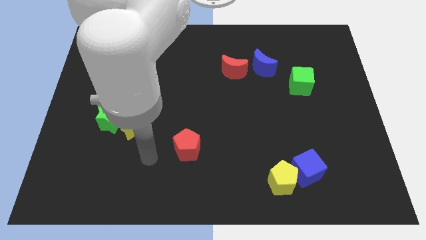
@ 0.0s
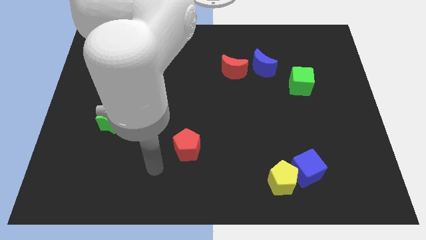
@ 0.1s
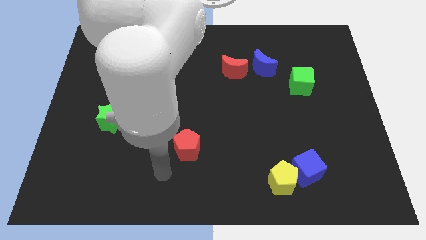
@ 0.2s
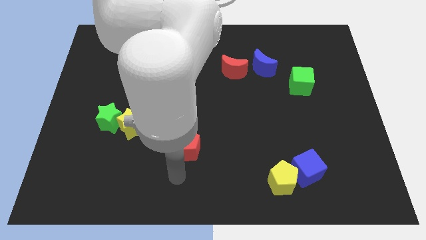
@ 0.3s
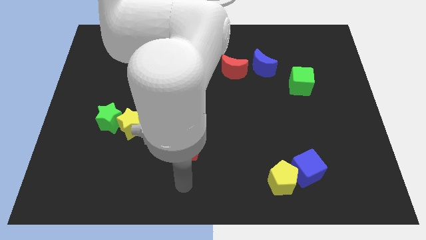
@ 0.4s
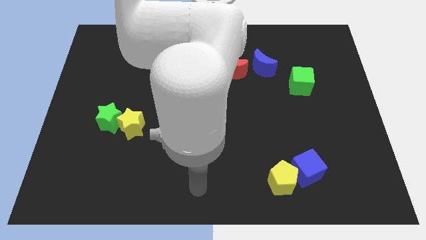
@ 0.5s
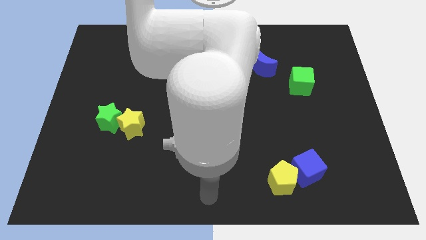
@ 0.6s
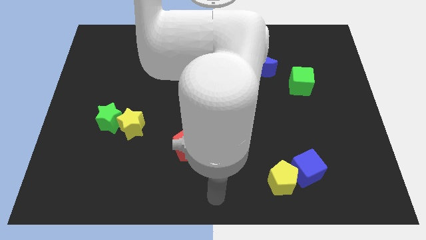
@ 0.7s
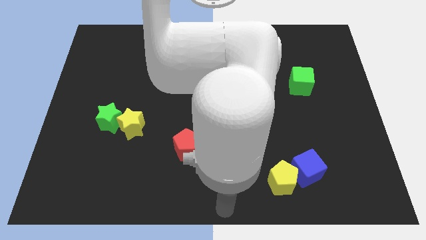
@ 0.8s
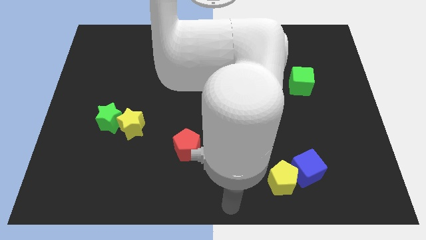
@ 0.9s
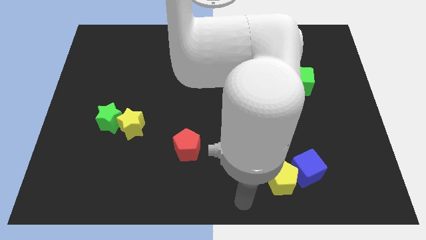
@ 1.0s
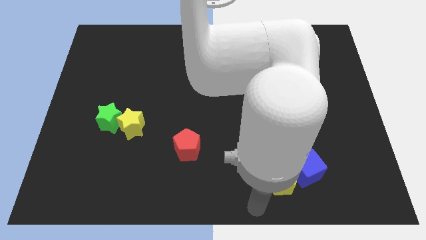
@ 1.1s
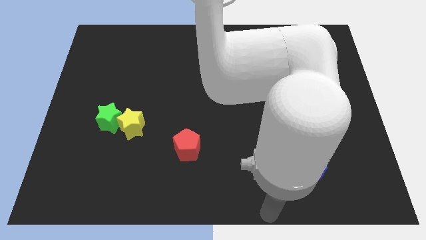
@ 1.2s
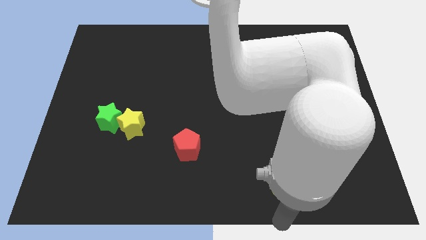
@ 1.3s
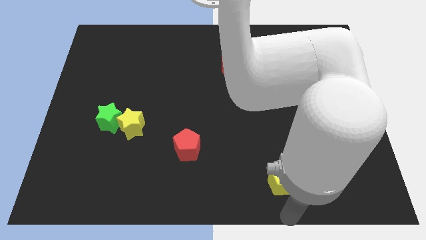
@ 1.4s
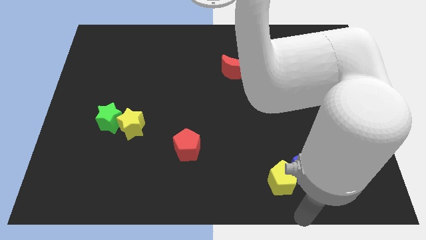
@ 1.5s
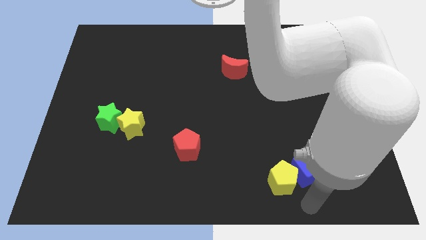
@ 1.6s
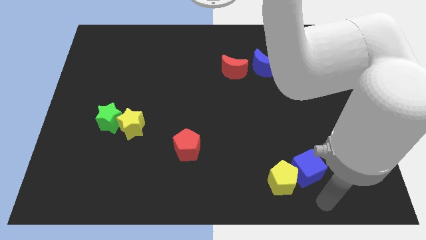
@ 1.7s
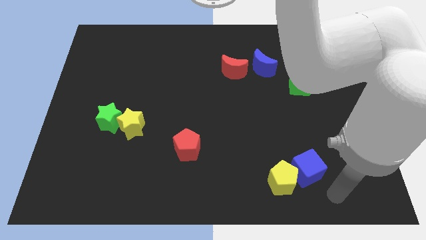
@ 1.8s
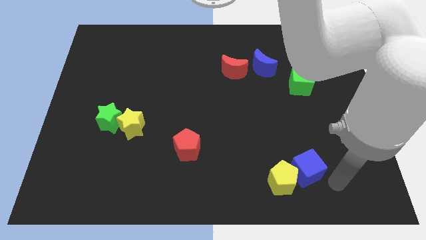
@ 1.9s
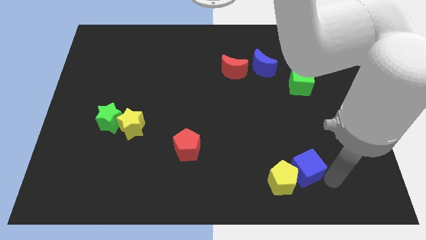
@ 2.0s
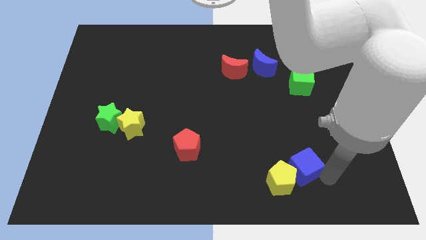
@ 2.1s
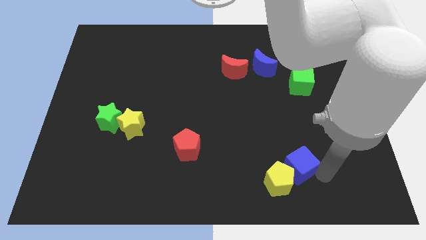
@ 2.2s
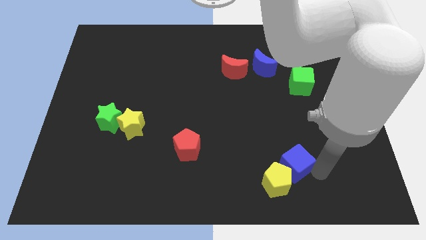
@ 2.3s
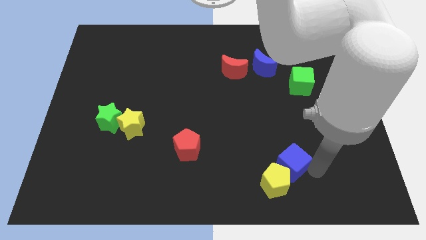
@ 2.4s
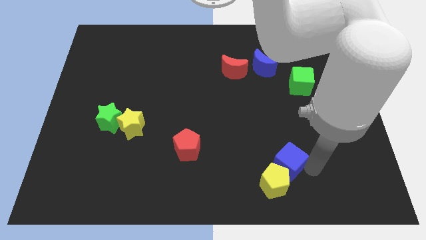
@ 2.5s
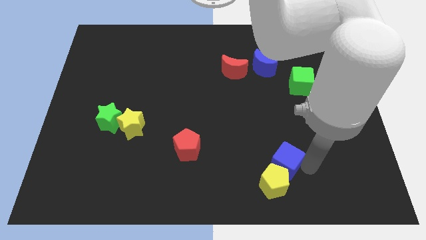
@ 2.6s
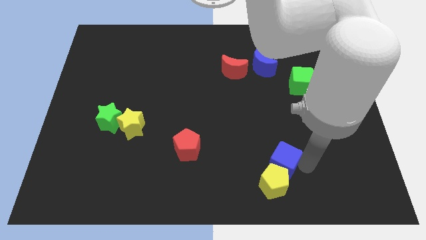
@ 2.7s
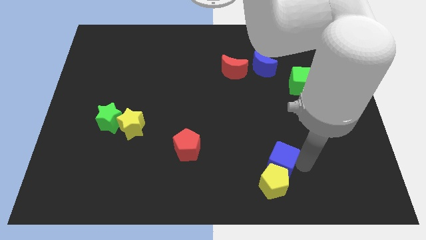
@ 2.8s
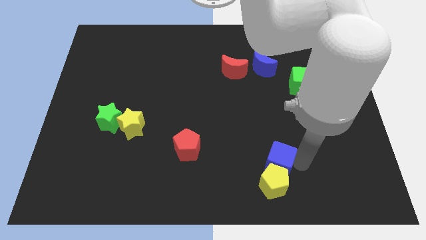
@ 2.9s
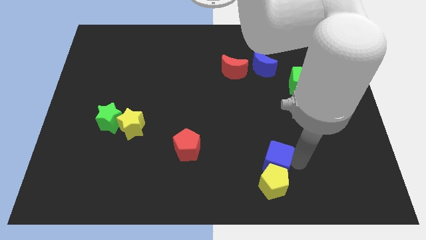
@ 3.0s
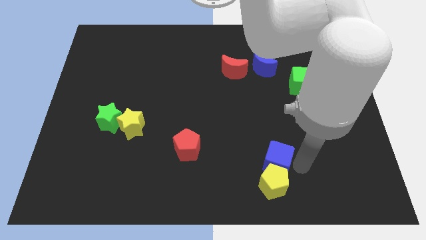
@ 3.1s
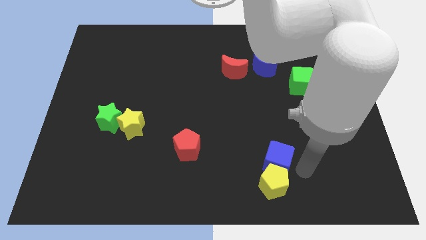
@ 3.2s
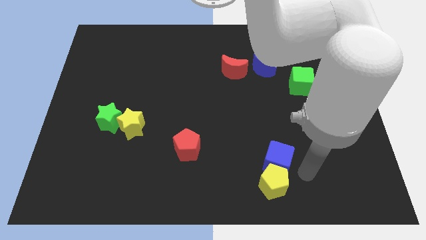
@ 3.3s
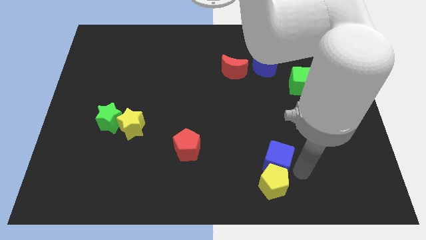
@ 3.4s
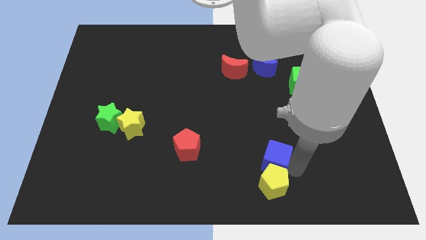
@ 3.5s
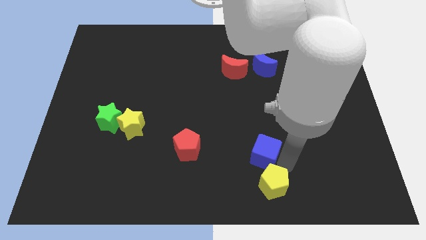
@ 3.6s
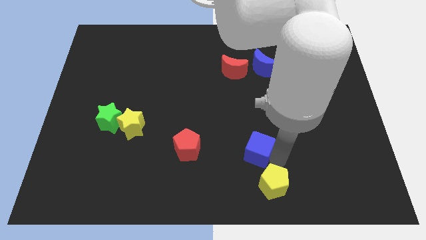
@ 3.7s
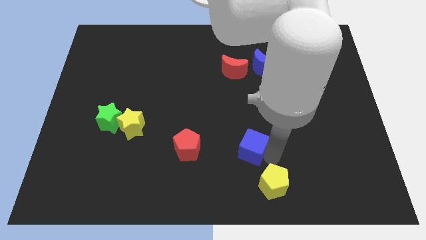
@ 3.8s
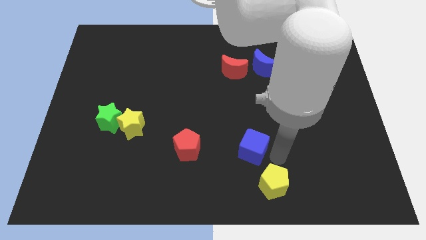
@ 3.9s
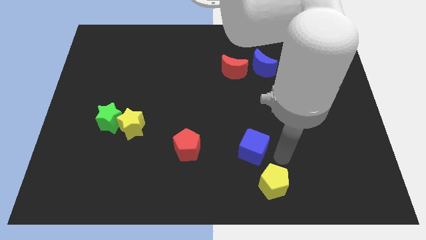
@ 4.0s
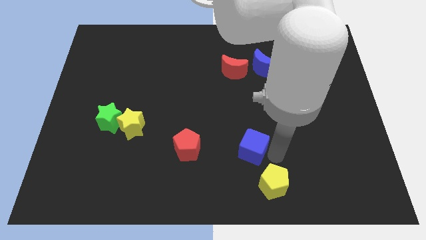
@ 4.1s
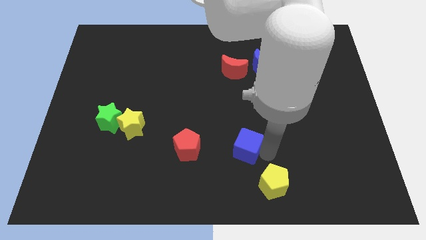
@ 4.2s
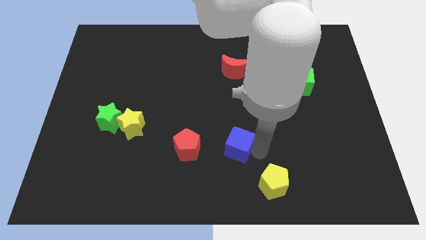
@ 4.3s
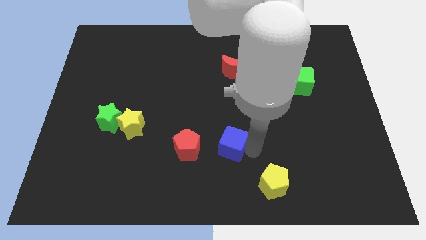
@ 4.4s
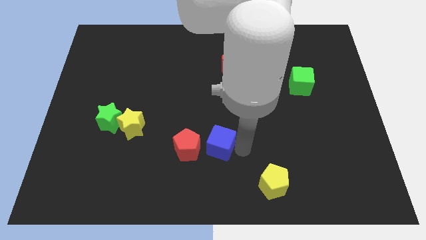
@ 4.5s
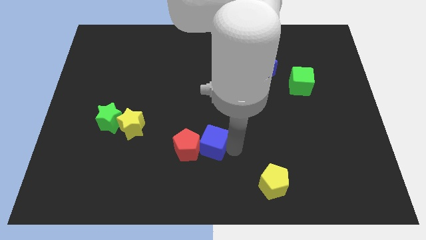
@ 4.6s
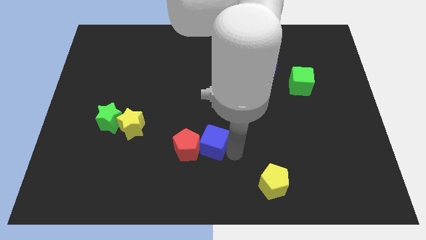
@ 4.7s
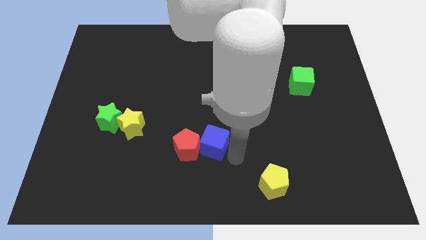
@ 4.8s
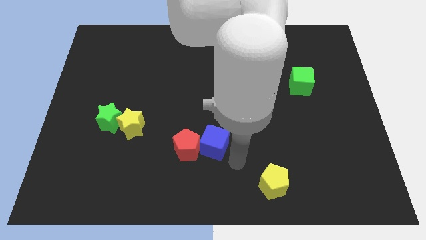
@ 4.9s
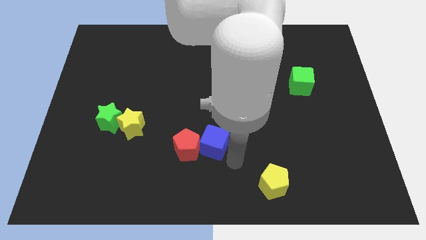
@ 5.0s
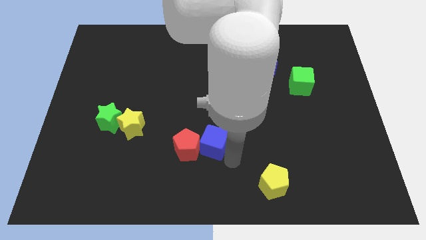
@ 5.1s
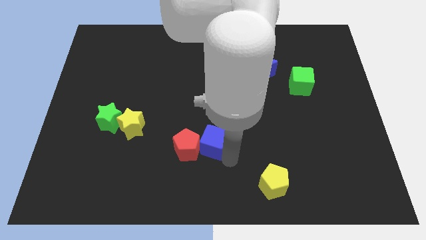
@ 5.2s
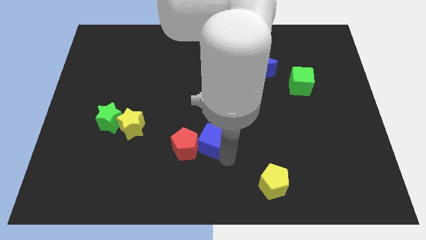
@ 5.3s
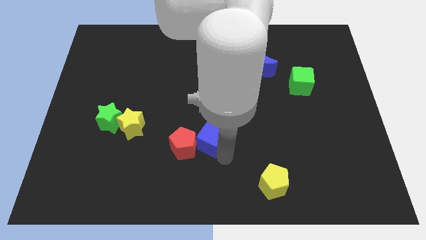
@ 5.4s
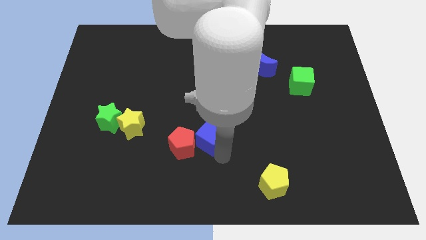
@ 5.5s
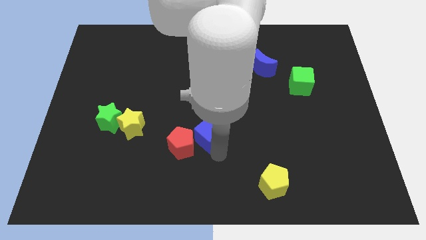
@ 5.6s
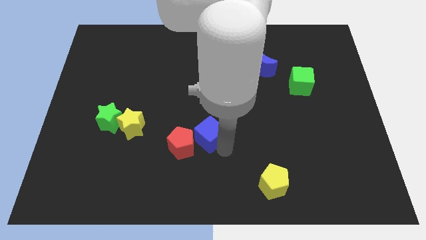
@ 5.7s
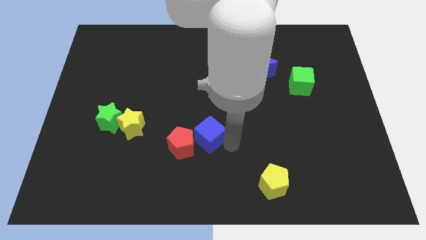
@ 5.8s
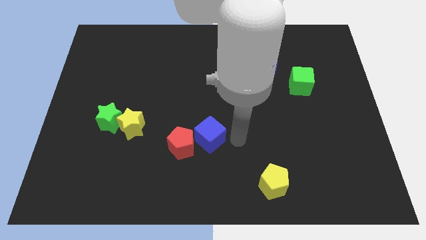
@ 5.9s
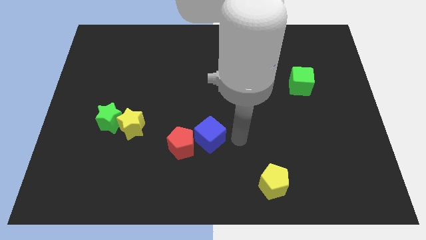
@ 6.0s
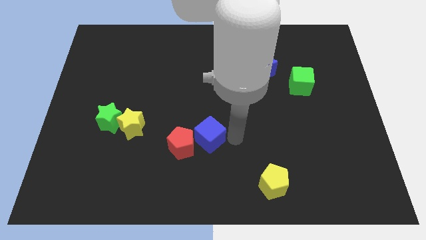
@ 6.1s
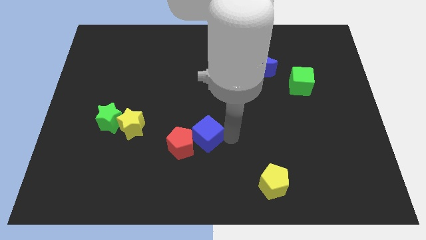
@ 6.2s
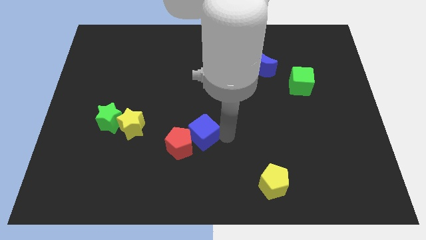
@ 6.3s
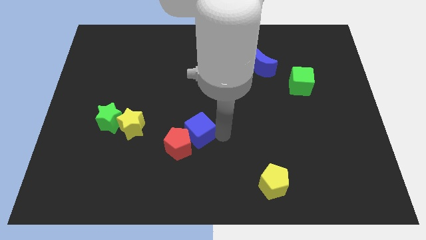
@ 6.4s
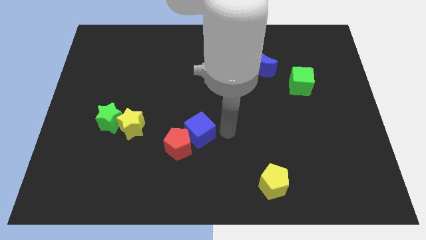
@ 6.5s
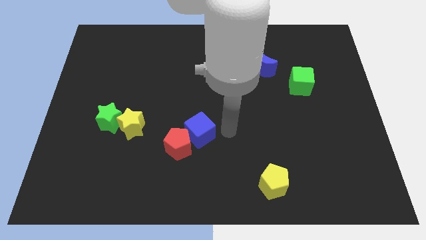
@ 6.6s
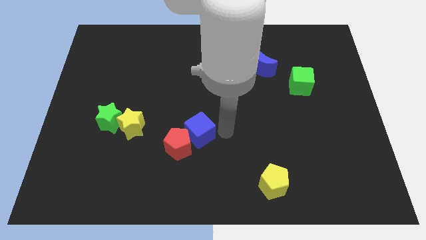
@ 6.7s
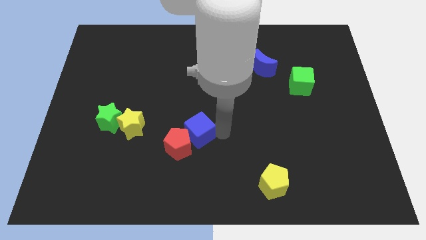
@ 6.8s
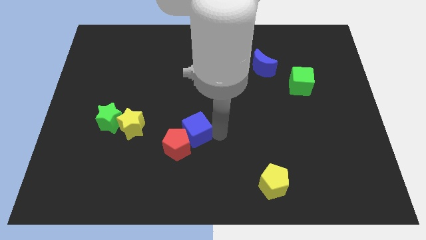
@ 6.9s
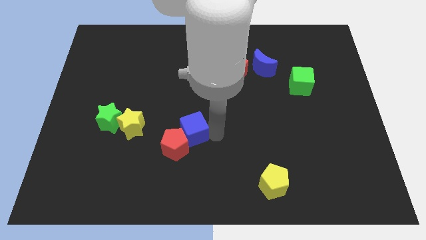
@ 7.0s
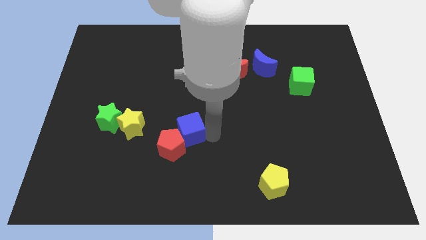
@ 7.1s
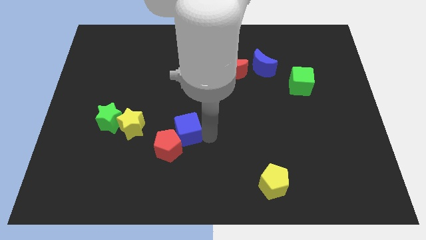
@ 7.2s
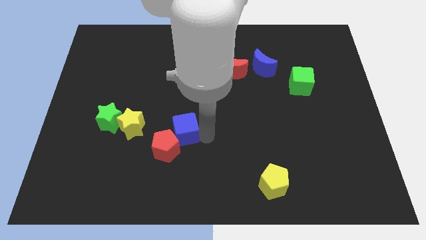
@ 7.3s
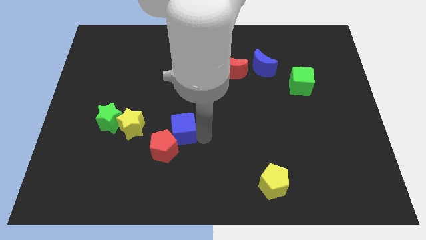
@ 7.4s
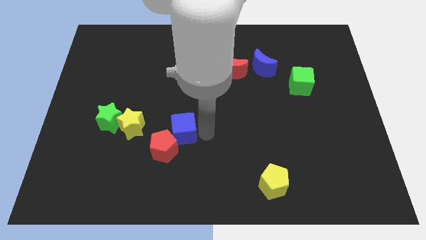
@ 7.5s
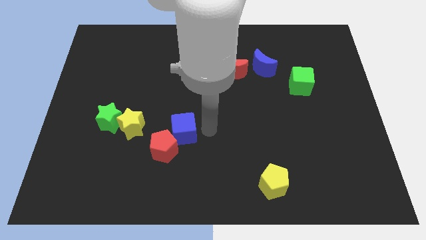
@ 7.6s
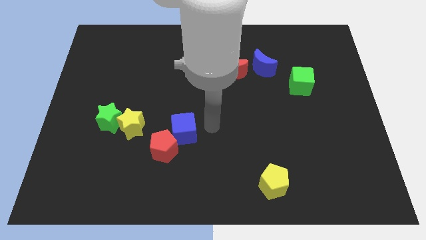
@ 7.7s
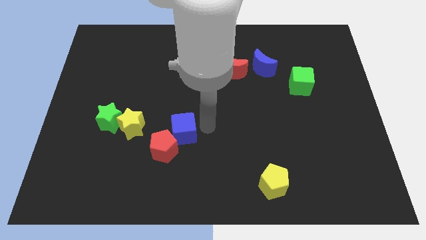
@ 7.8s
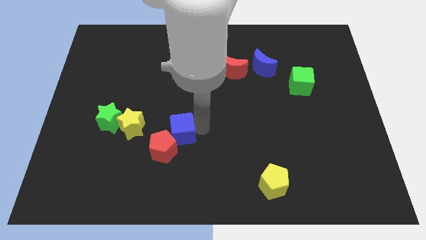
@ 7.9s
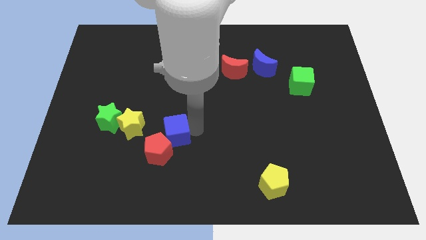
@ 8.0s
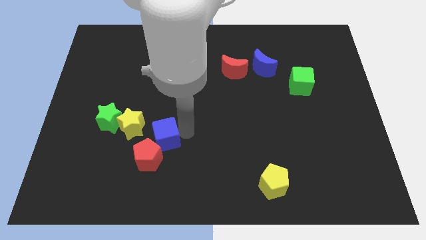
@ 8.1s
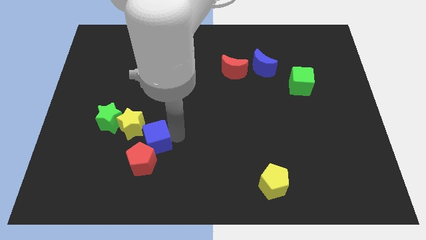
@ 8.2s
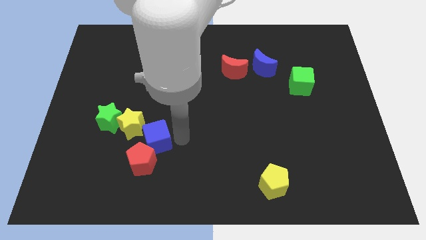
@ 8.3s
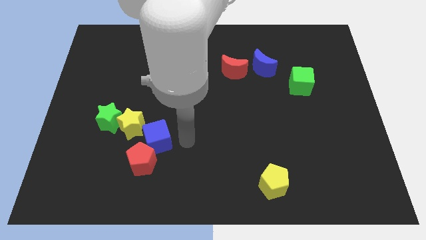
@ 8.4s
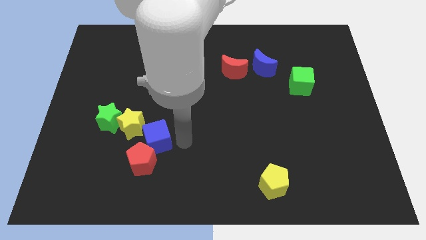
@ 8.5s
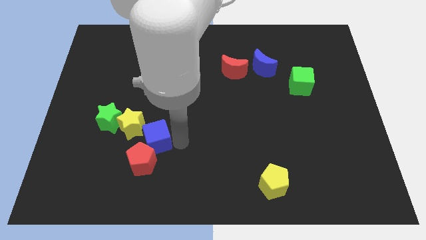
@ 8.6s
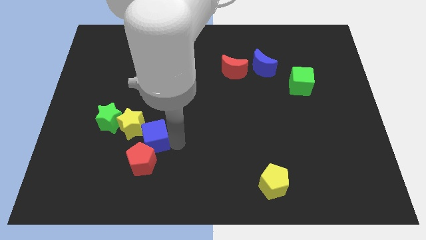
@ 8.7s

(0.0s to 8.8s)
push the blue cube to the bottom right side of the green star
